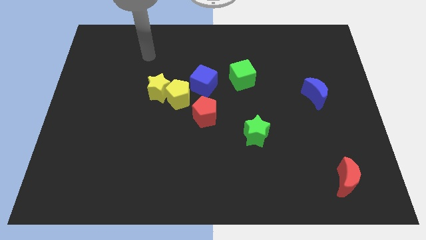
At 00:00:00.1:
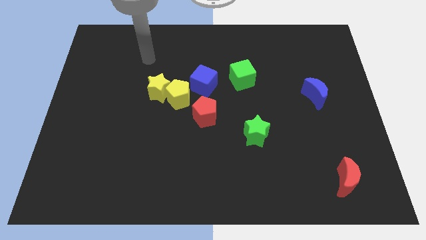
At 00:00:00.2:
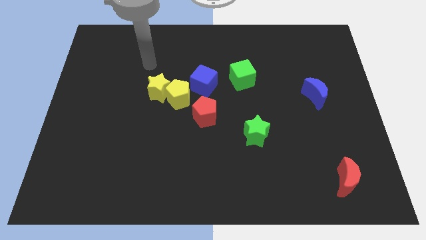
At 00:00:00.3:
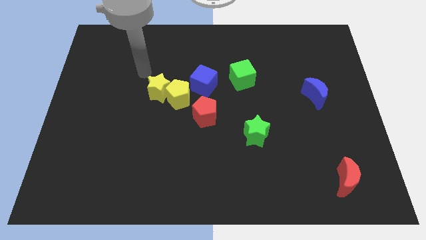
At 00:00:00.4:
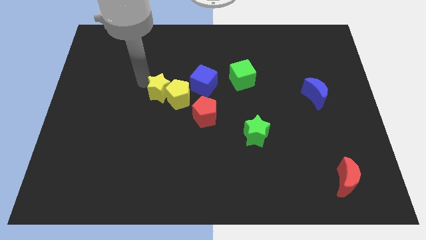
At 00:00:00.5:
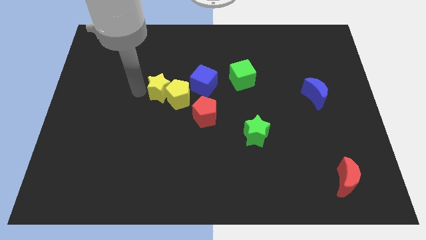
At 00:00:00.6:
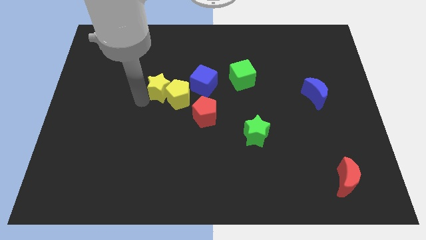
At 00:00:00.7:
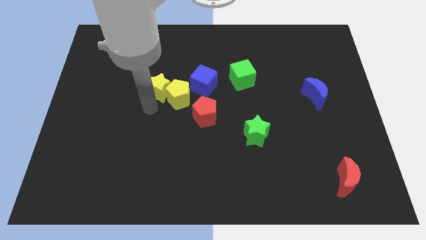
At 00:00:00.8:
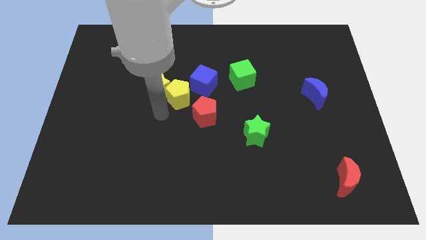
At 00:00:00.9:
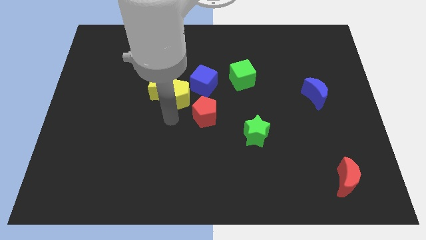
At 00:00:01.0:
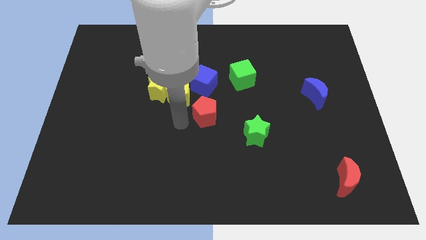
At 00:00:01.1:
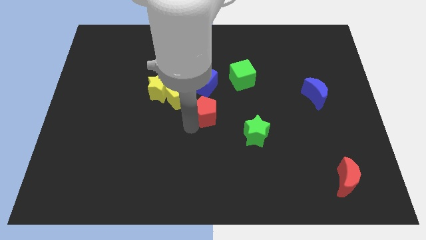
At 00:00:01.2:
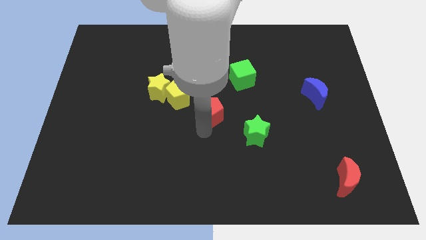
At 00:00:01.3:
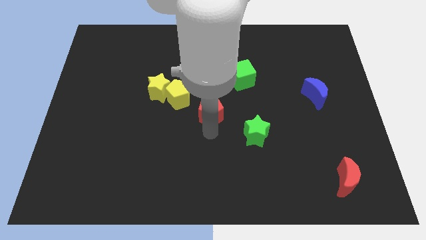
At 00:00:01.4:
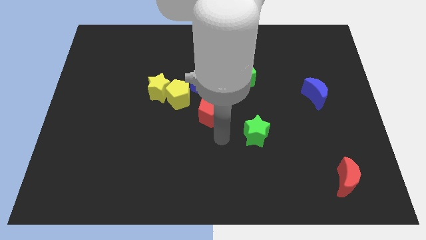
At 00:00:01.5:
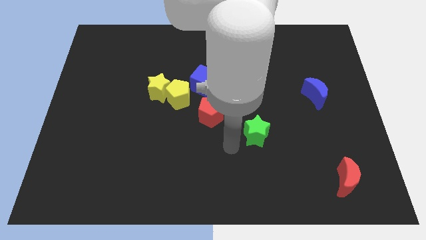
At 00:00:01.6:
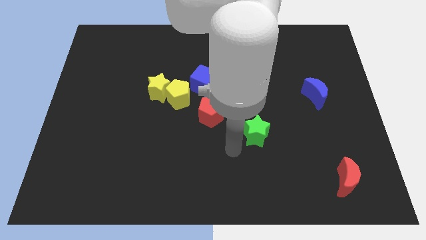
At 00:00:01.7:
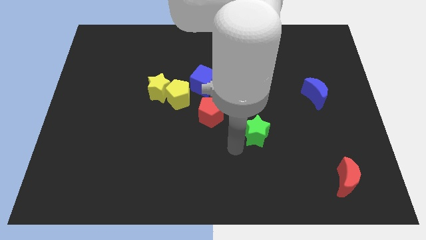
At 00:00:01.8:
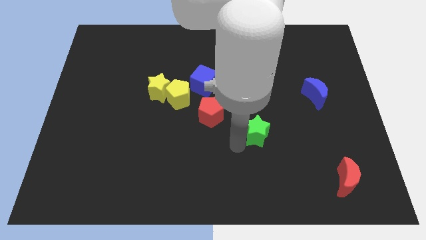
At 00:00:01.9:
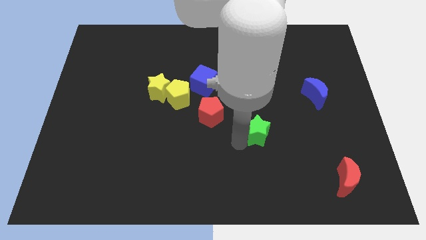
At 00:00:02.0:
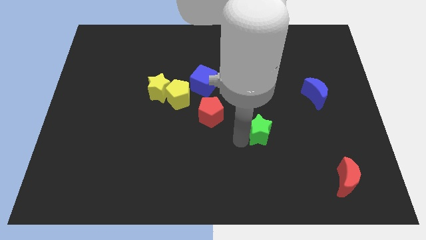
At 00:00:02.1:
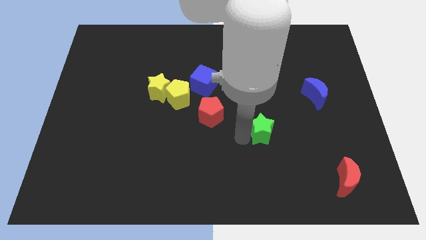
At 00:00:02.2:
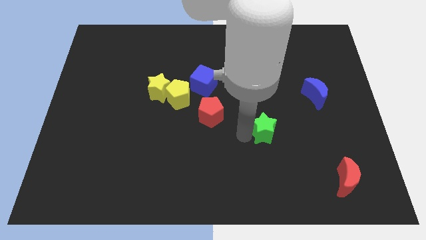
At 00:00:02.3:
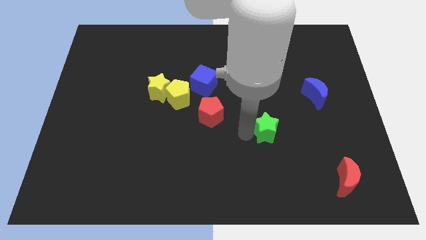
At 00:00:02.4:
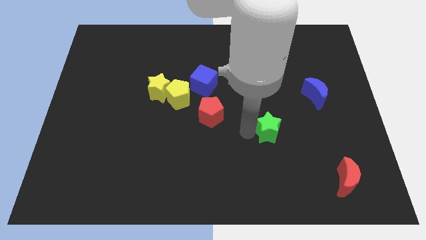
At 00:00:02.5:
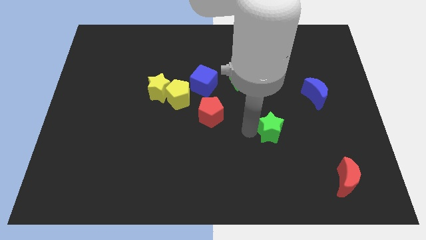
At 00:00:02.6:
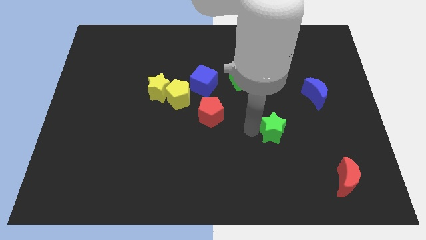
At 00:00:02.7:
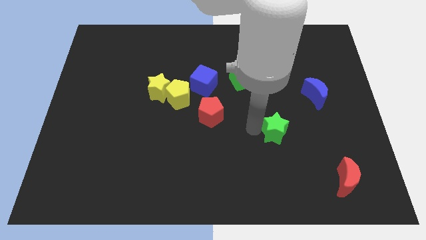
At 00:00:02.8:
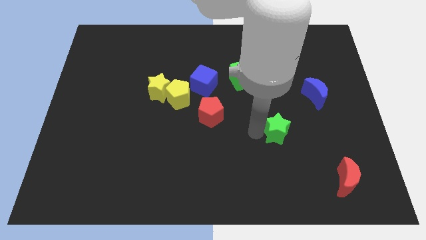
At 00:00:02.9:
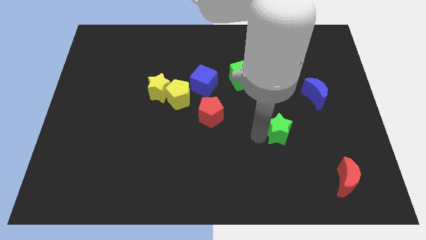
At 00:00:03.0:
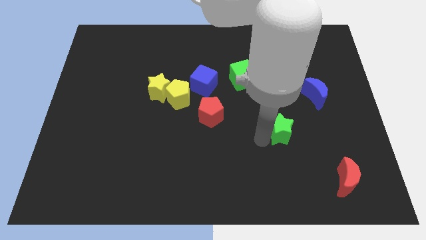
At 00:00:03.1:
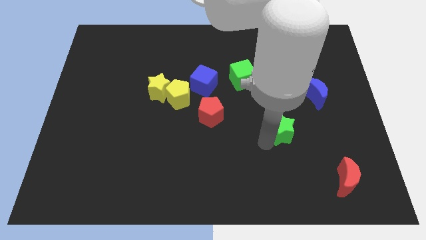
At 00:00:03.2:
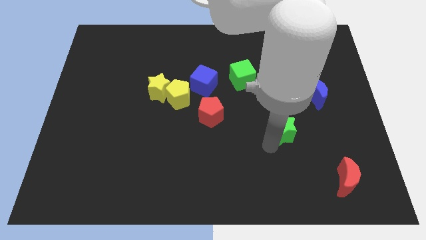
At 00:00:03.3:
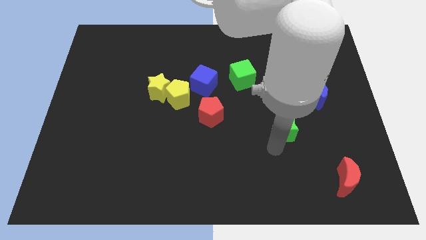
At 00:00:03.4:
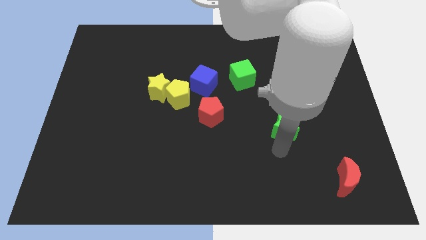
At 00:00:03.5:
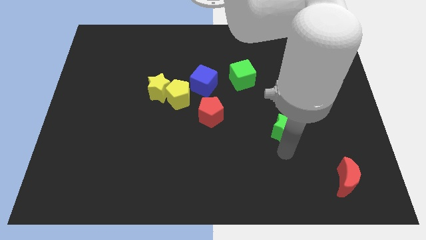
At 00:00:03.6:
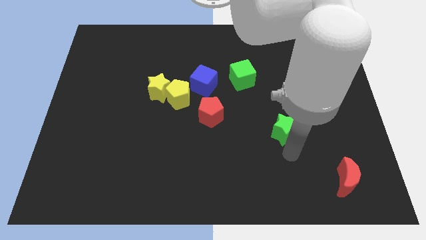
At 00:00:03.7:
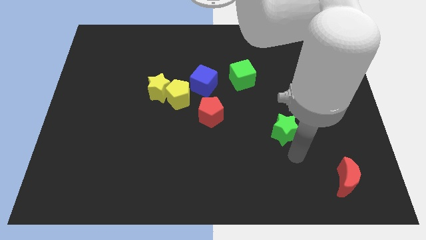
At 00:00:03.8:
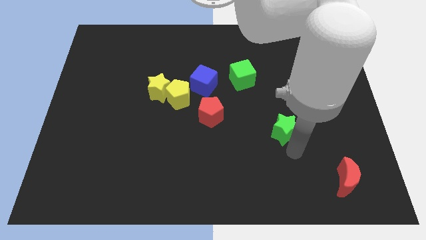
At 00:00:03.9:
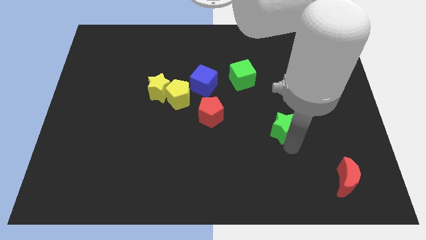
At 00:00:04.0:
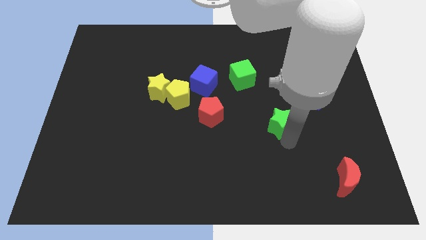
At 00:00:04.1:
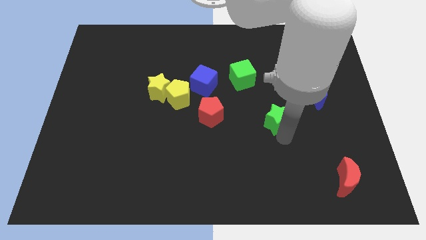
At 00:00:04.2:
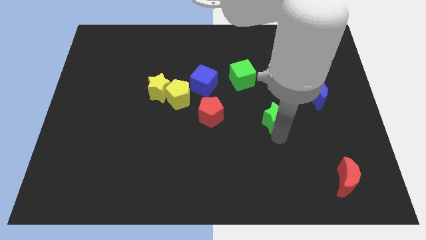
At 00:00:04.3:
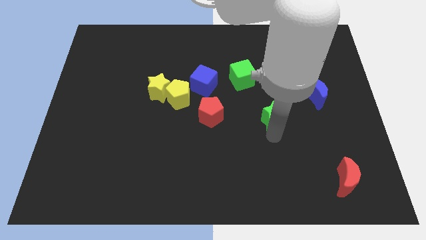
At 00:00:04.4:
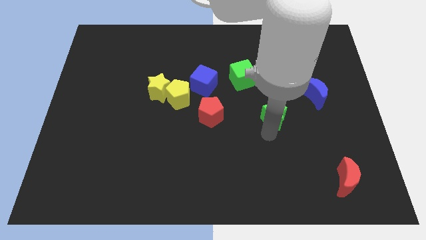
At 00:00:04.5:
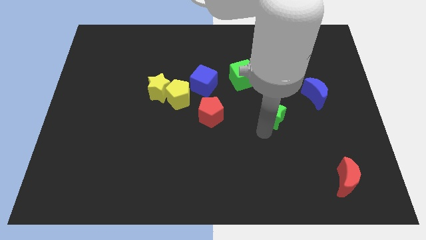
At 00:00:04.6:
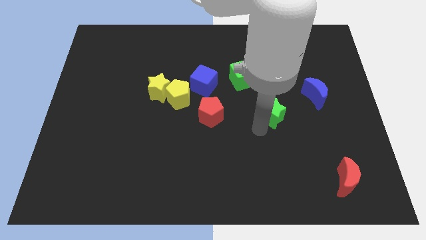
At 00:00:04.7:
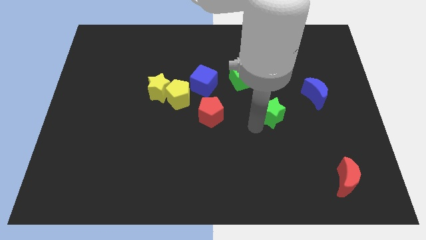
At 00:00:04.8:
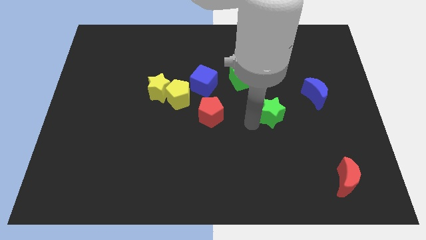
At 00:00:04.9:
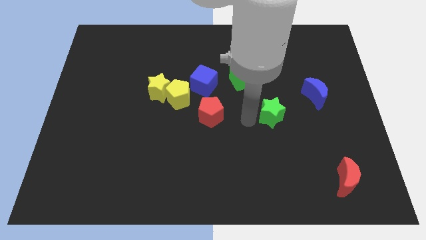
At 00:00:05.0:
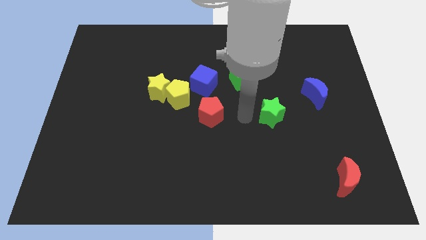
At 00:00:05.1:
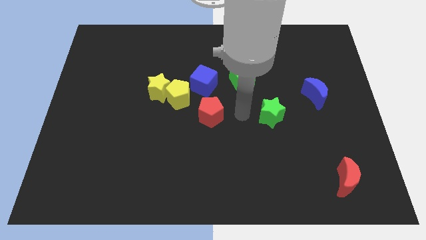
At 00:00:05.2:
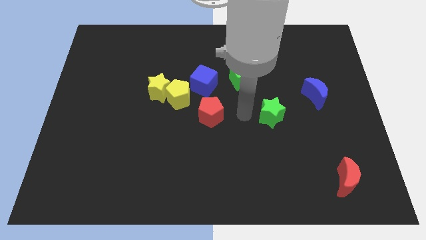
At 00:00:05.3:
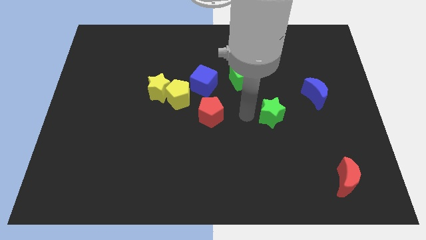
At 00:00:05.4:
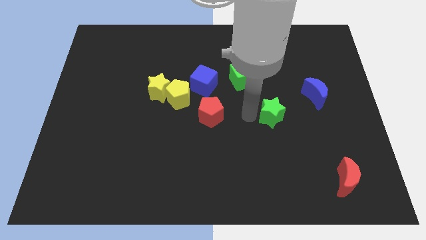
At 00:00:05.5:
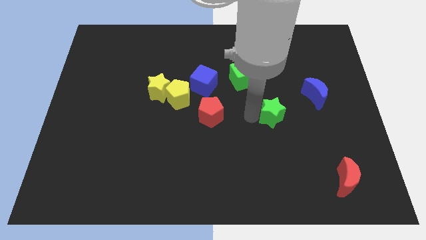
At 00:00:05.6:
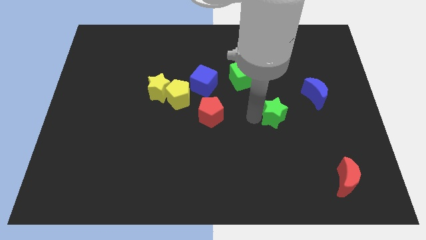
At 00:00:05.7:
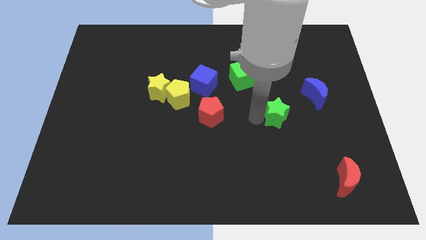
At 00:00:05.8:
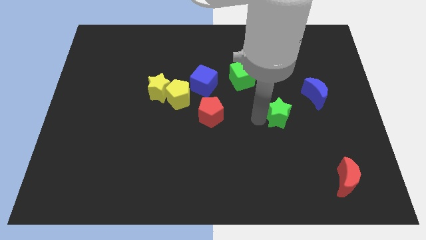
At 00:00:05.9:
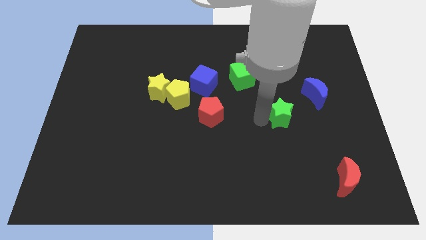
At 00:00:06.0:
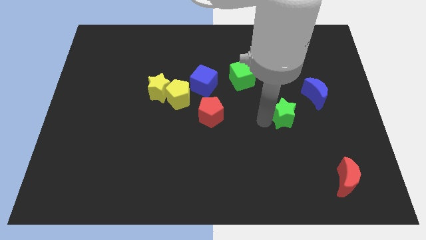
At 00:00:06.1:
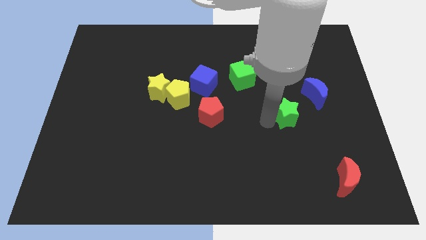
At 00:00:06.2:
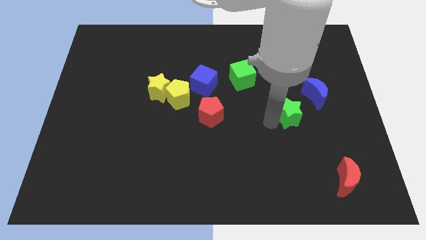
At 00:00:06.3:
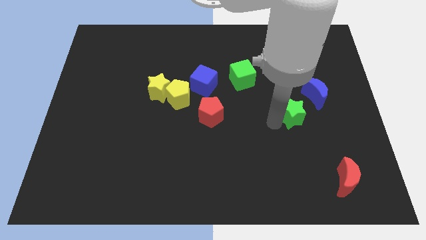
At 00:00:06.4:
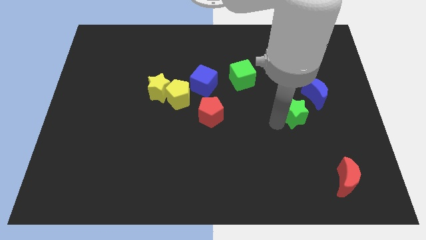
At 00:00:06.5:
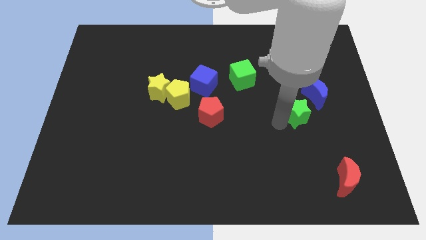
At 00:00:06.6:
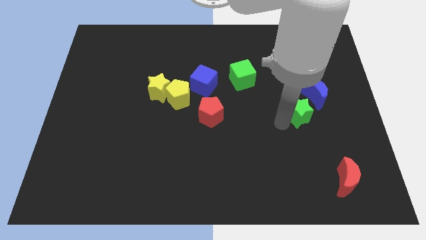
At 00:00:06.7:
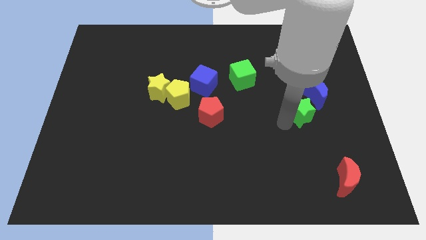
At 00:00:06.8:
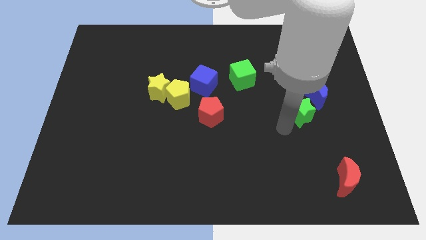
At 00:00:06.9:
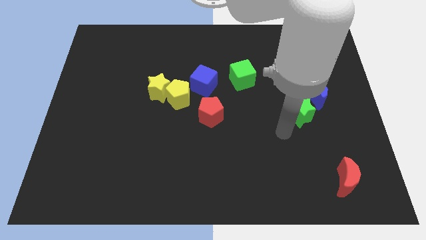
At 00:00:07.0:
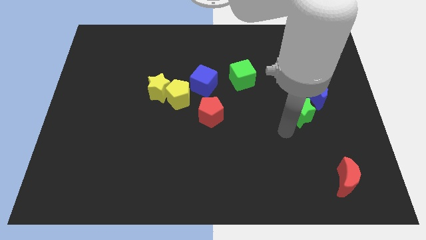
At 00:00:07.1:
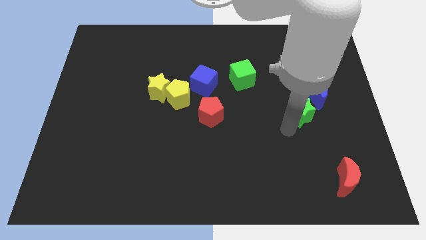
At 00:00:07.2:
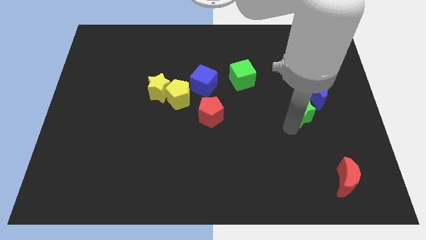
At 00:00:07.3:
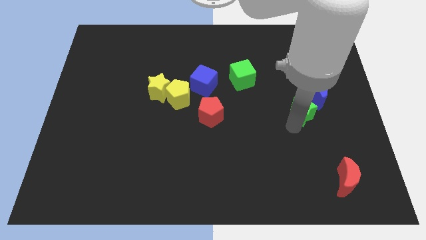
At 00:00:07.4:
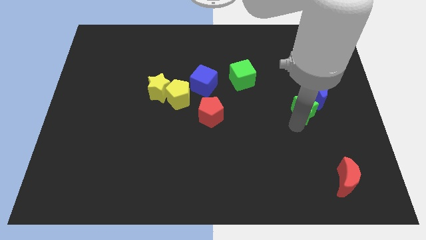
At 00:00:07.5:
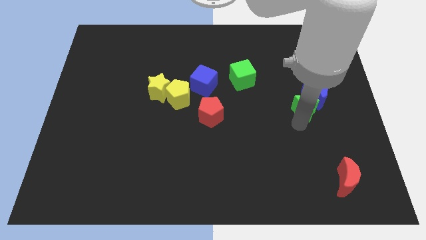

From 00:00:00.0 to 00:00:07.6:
move the green star to the blue moon
